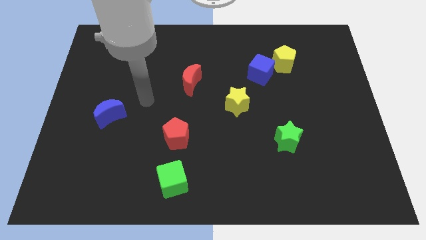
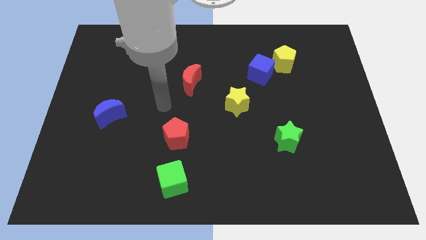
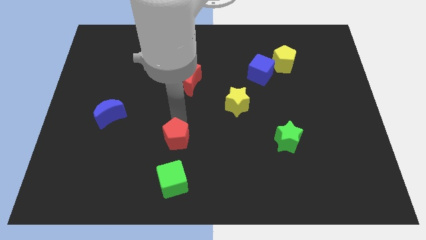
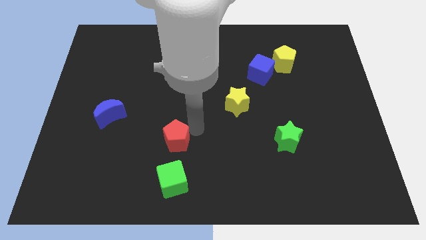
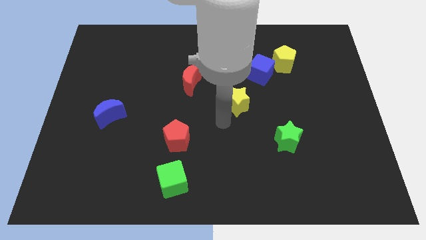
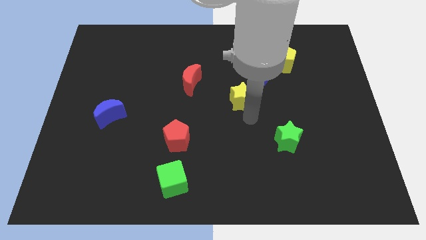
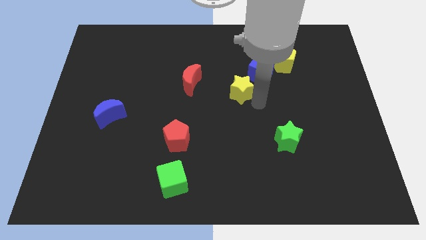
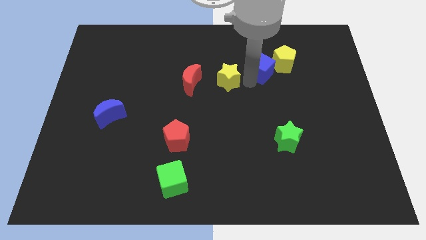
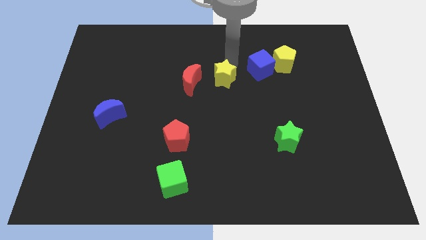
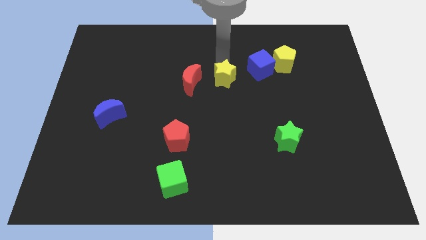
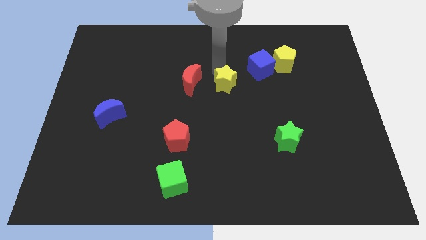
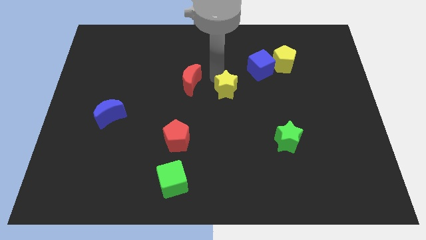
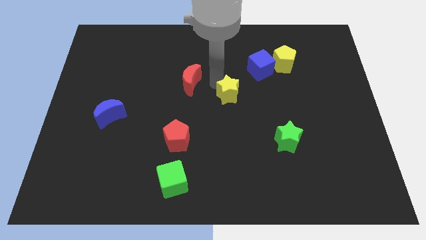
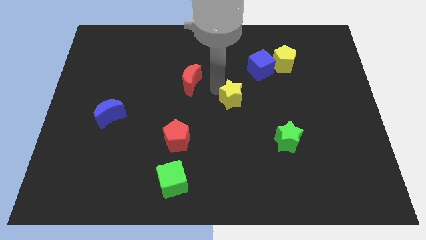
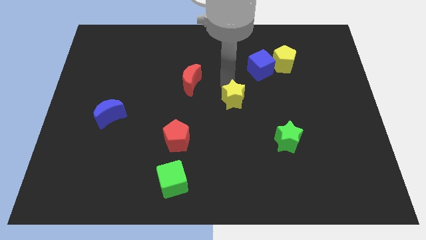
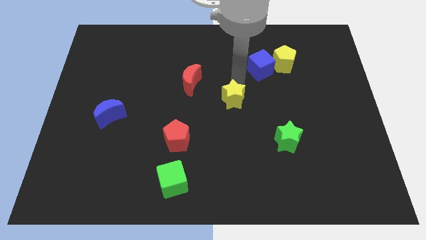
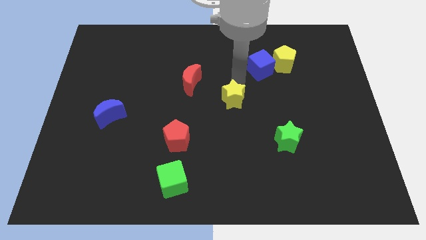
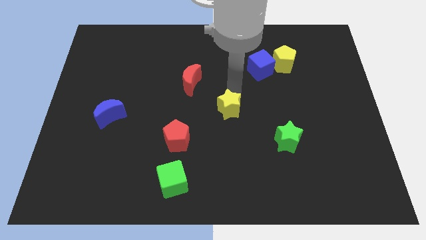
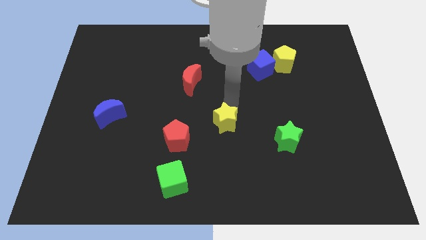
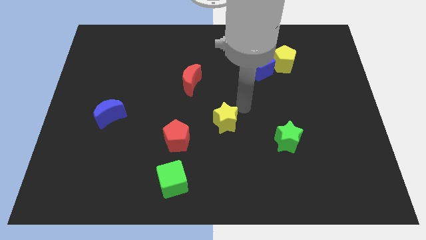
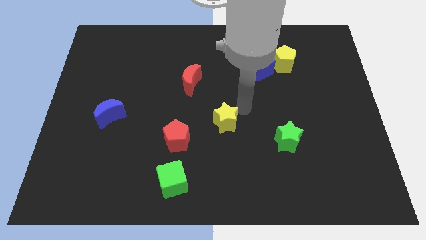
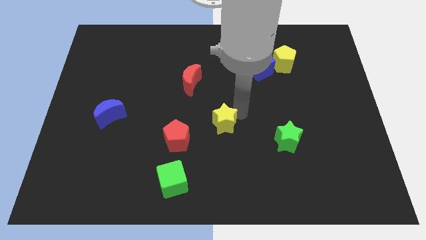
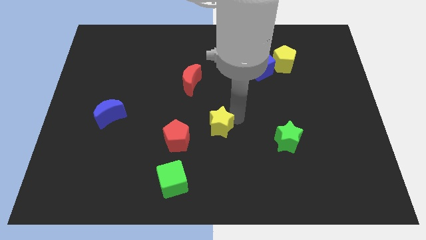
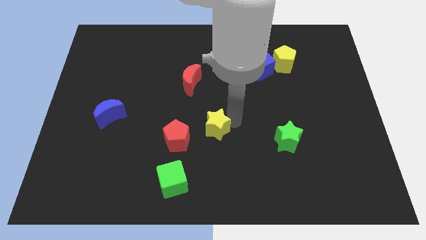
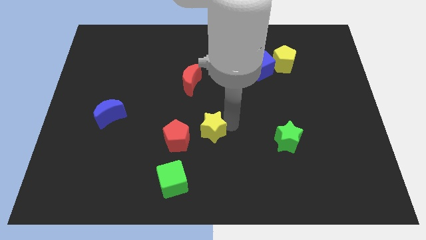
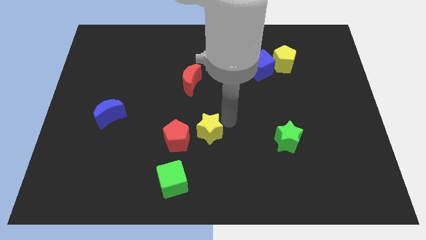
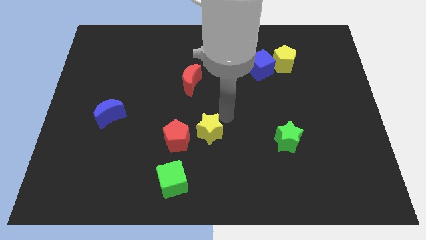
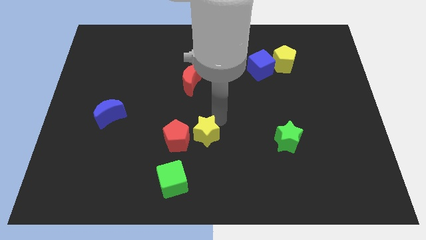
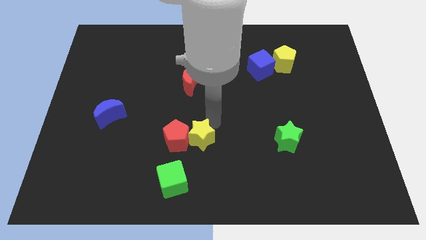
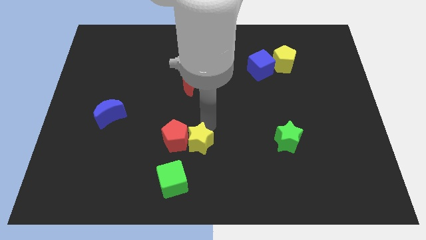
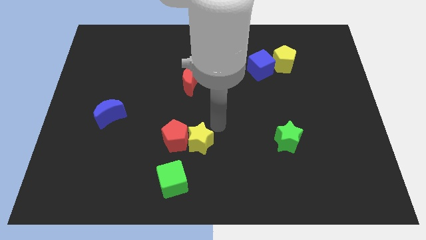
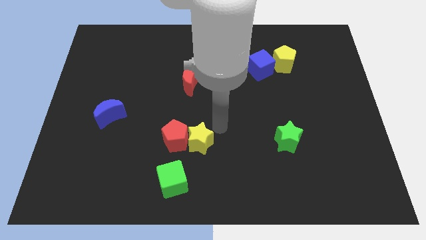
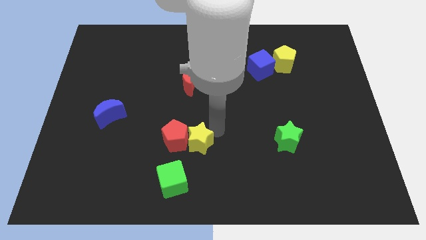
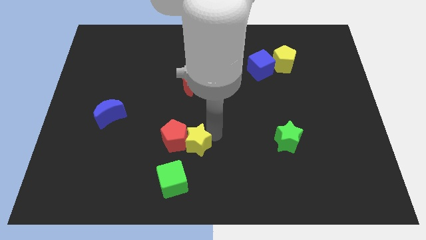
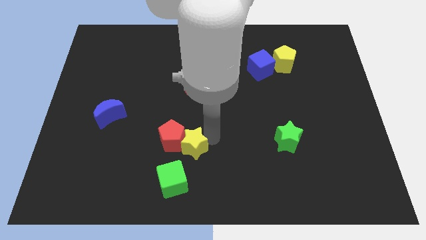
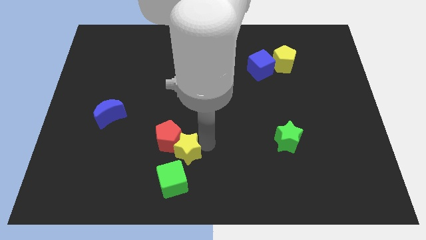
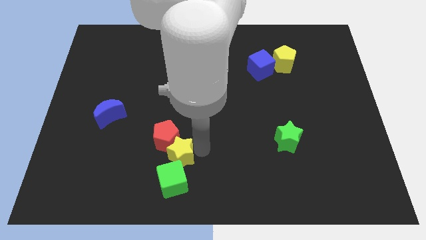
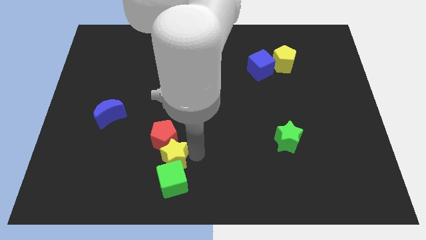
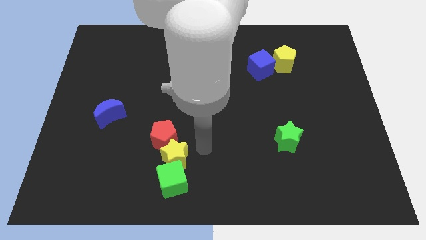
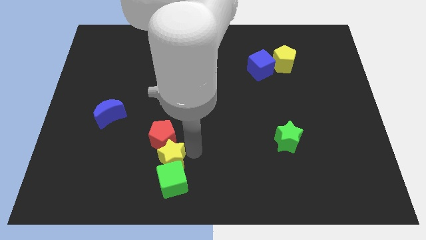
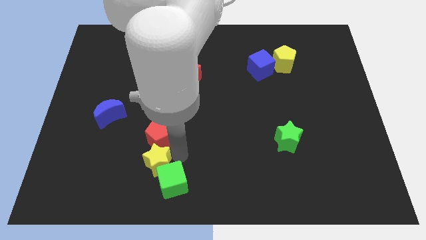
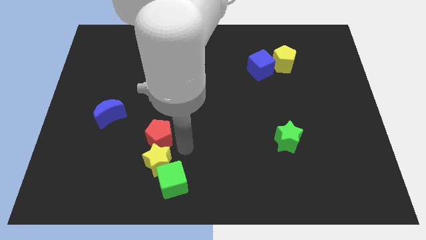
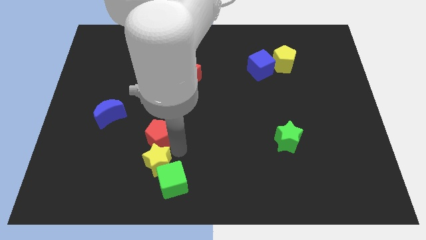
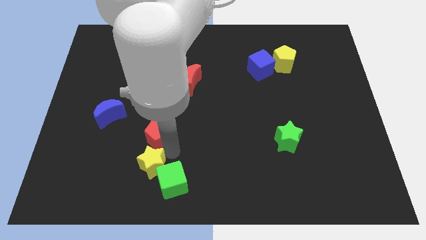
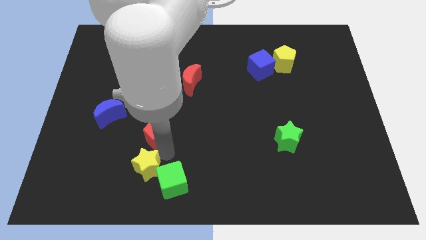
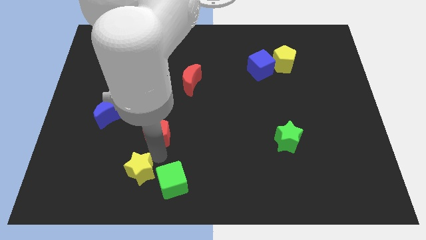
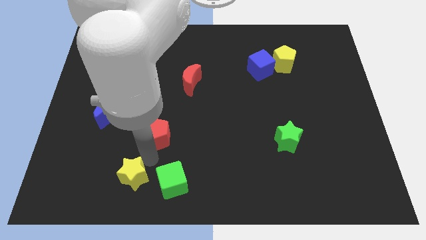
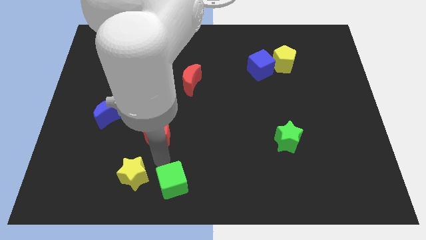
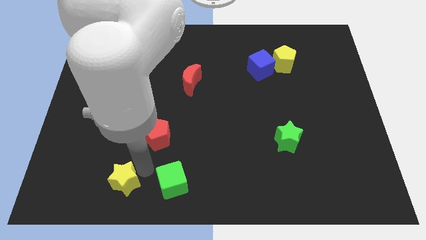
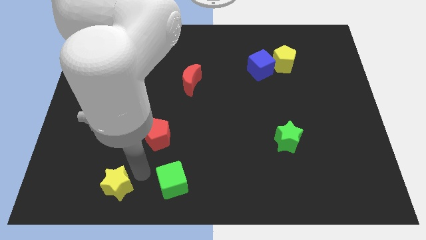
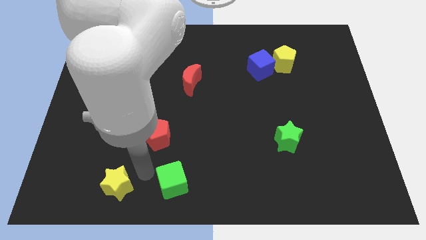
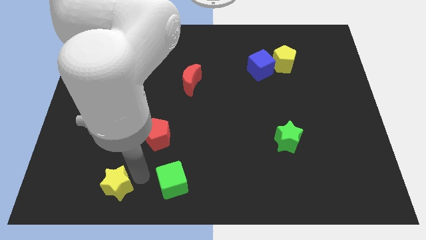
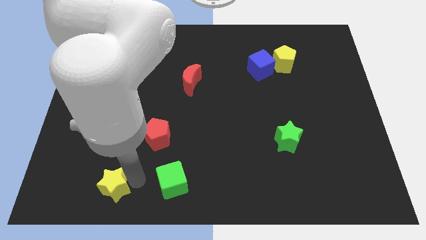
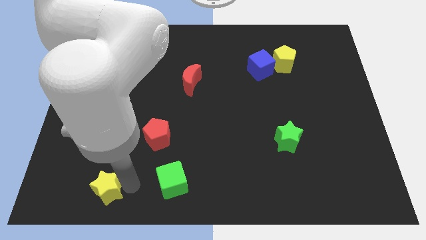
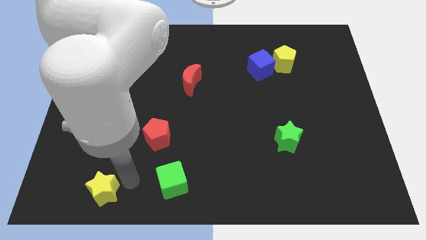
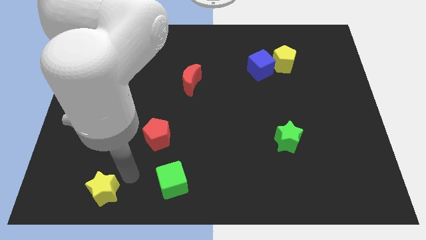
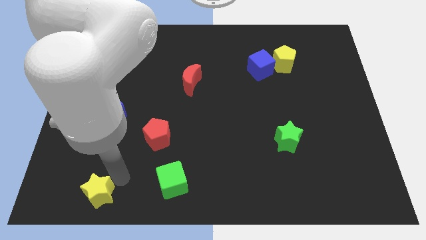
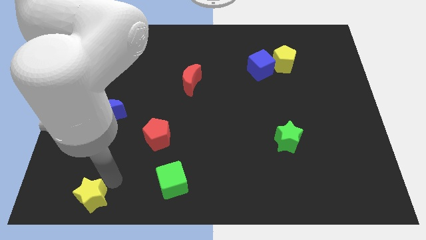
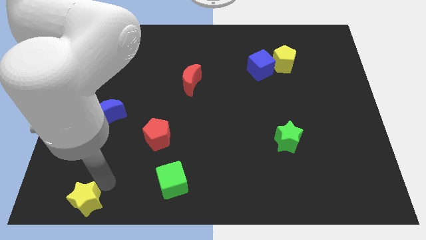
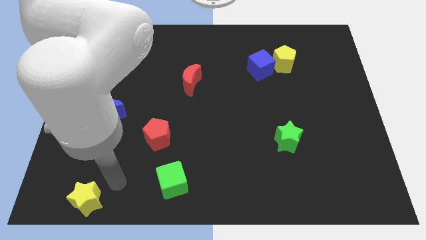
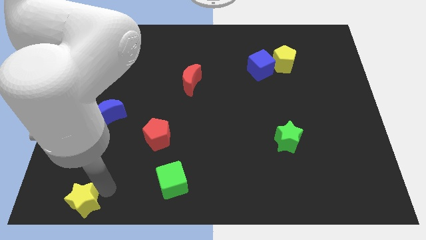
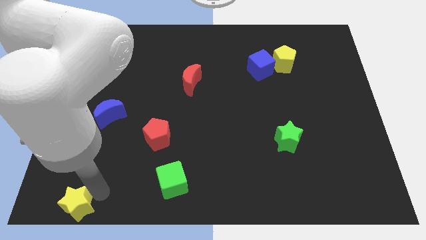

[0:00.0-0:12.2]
slide the yellow star to the bottom left corner

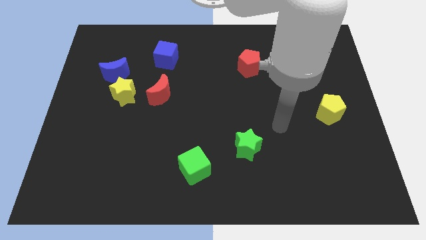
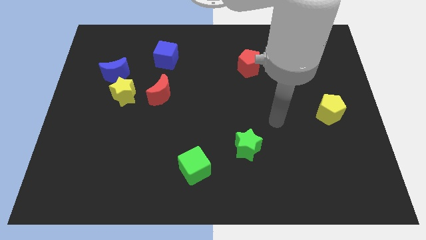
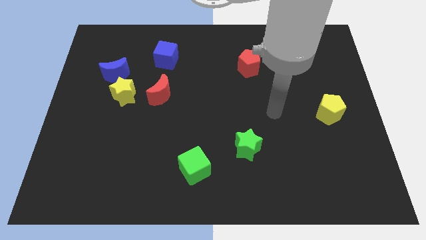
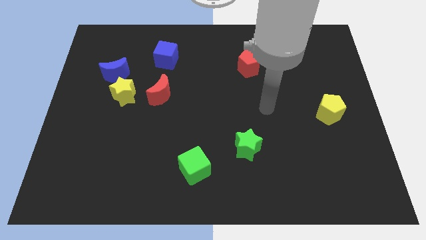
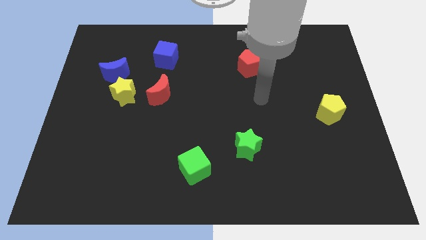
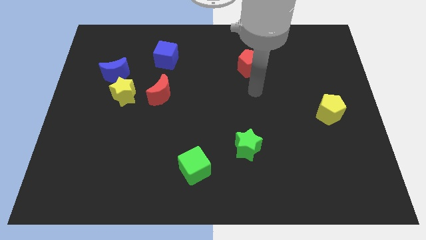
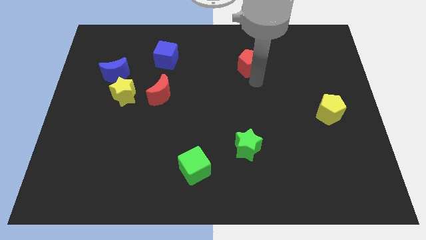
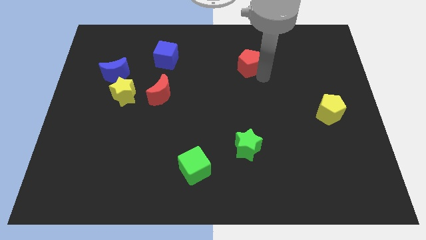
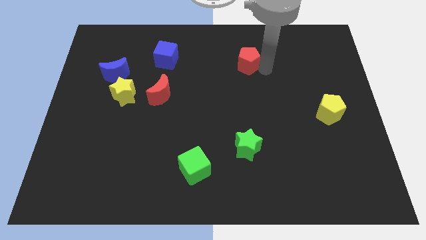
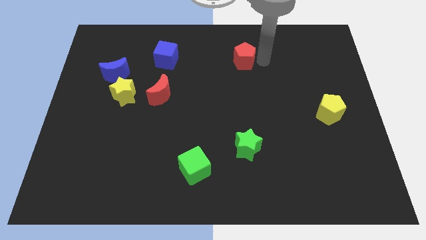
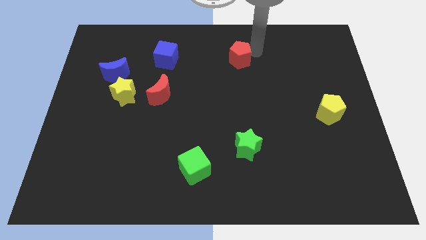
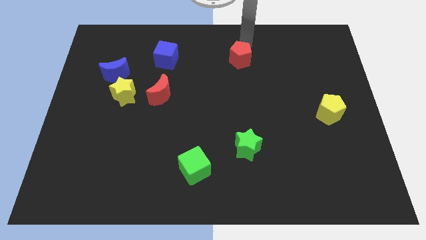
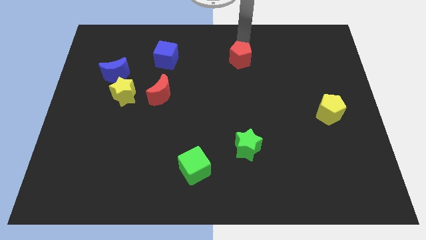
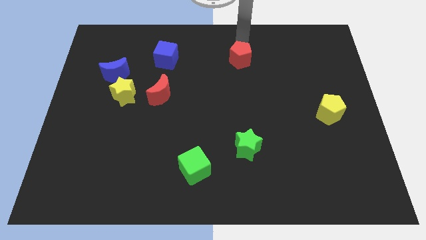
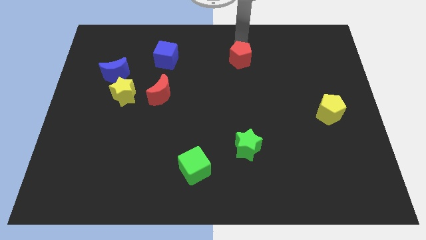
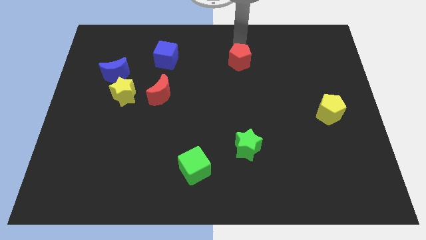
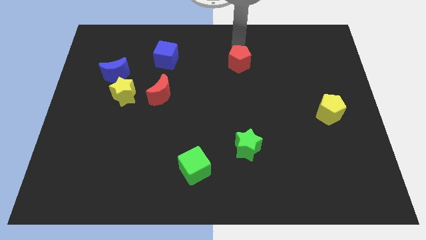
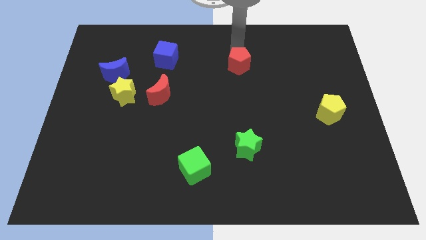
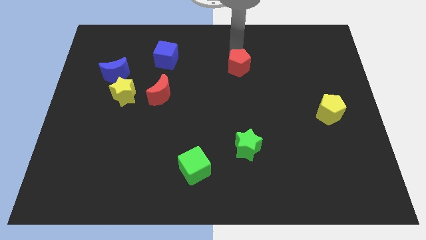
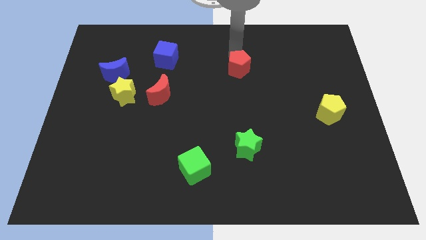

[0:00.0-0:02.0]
put the red pentagon to the middle
